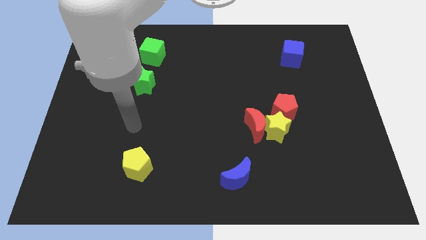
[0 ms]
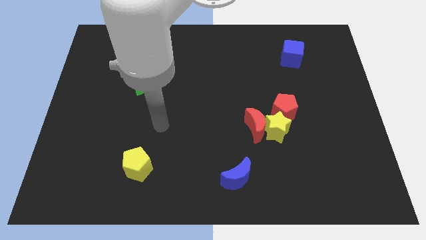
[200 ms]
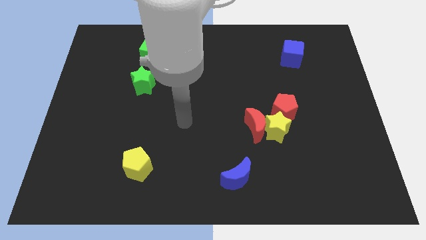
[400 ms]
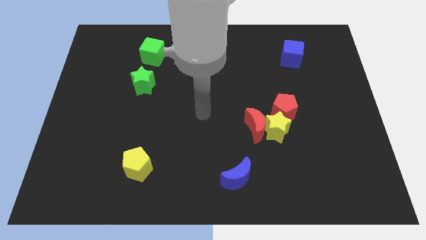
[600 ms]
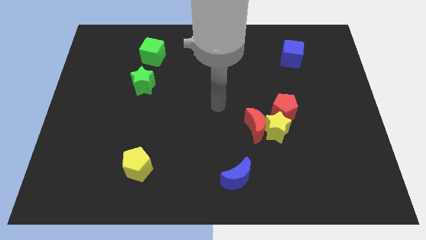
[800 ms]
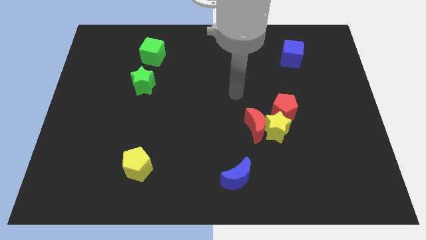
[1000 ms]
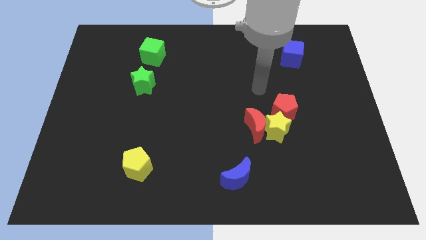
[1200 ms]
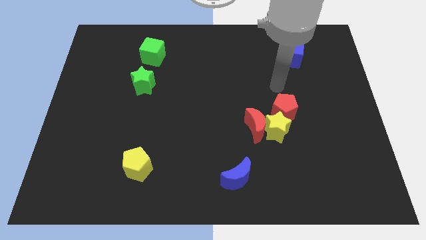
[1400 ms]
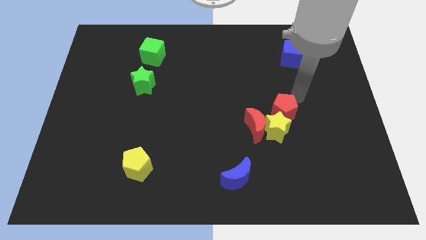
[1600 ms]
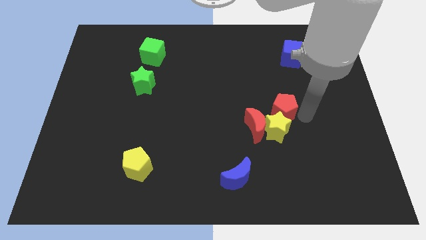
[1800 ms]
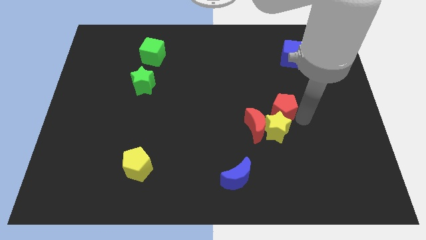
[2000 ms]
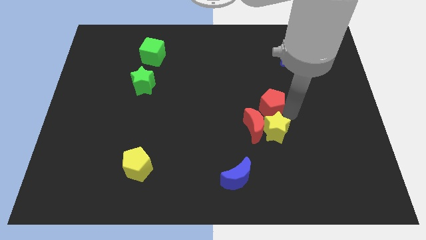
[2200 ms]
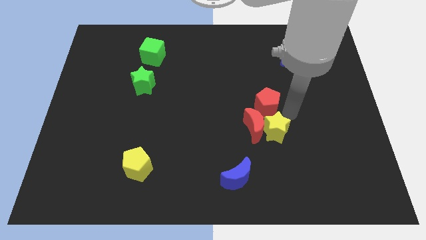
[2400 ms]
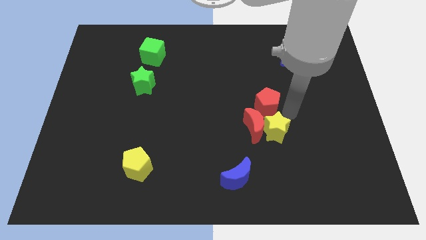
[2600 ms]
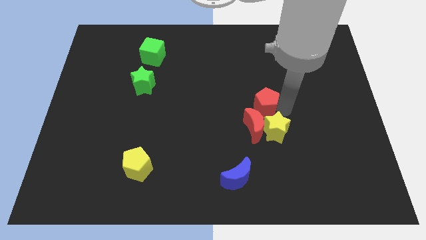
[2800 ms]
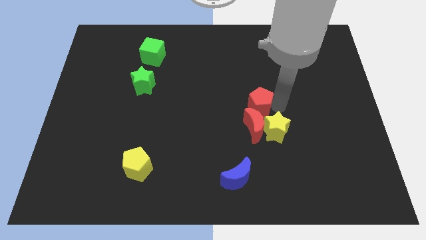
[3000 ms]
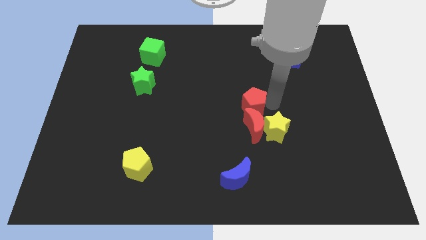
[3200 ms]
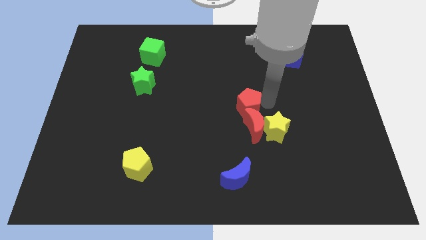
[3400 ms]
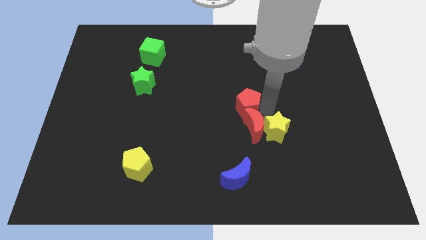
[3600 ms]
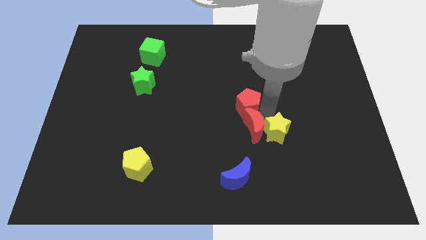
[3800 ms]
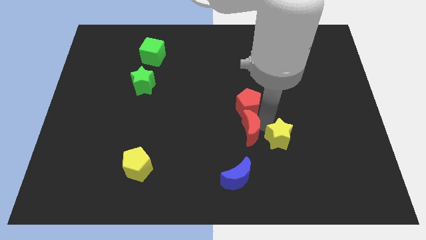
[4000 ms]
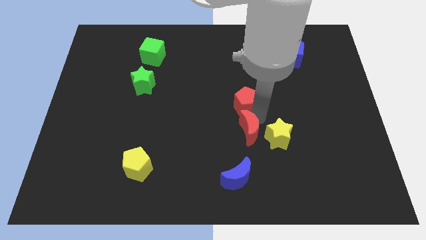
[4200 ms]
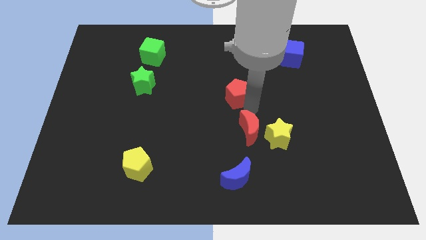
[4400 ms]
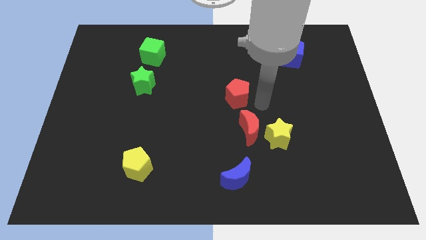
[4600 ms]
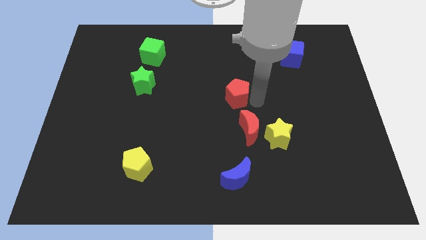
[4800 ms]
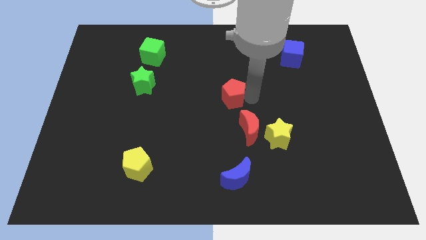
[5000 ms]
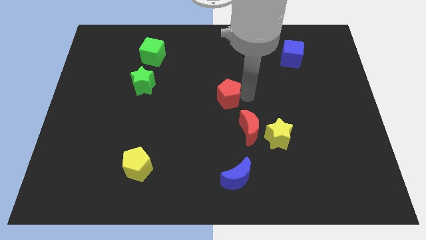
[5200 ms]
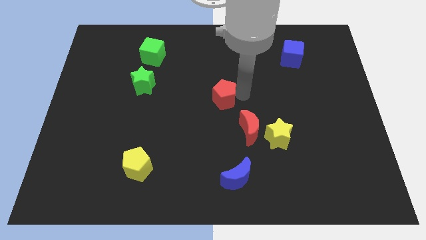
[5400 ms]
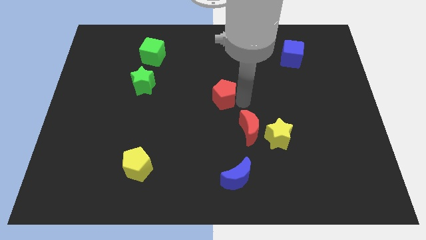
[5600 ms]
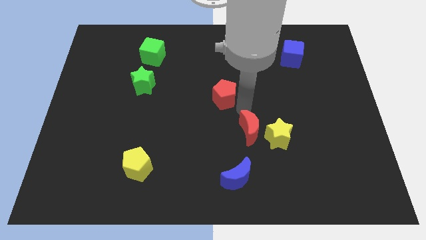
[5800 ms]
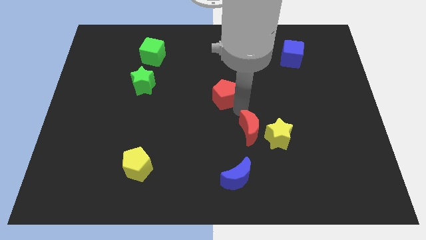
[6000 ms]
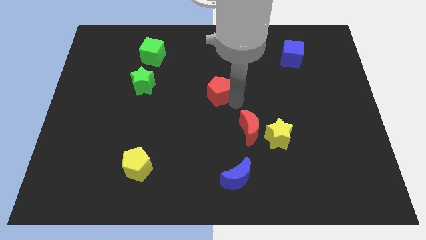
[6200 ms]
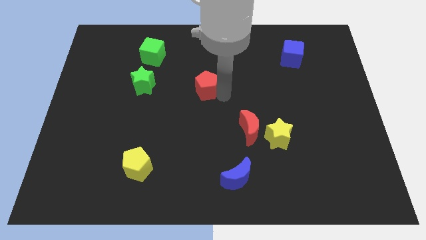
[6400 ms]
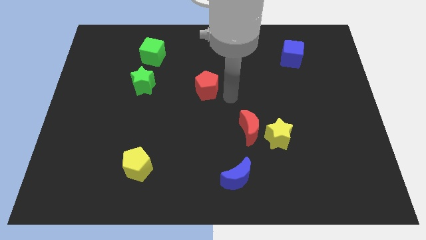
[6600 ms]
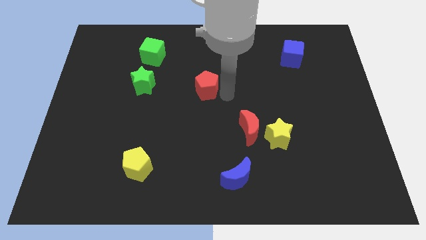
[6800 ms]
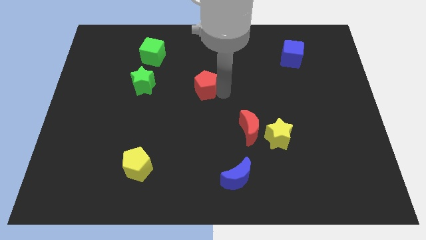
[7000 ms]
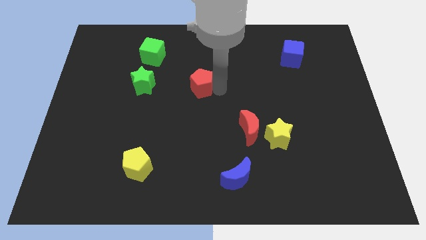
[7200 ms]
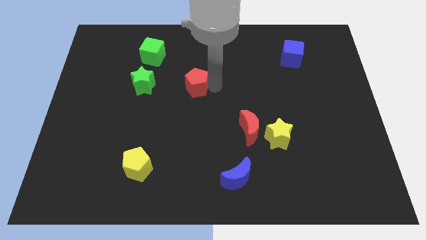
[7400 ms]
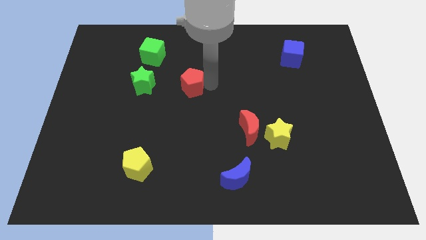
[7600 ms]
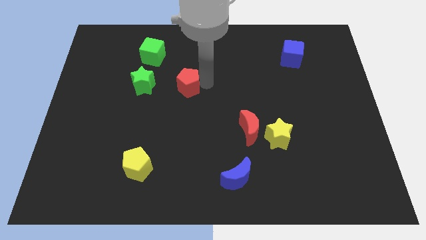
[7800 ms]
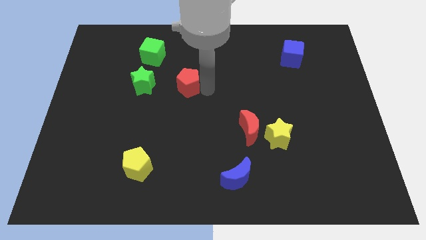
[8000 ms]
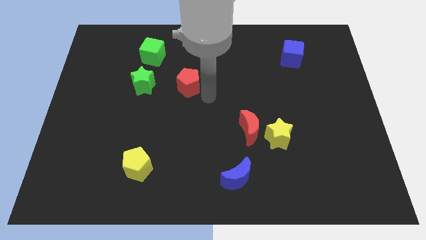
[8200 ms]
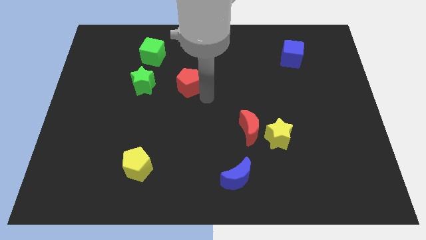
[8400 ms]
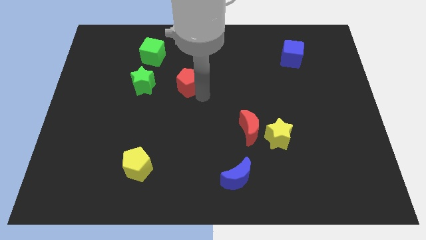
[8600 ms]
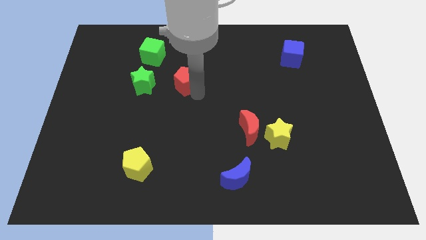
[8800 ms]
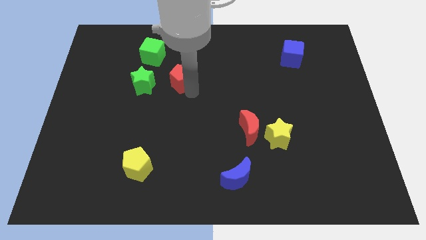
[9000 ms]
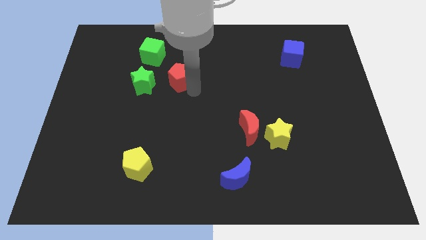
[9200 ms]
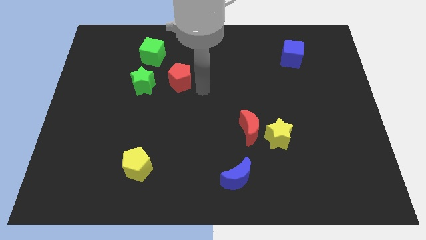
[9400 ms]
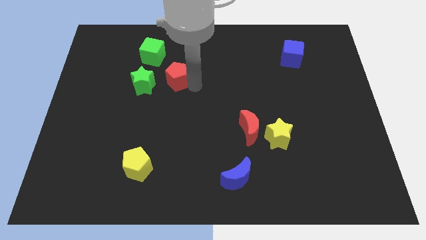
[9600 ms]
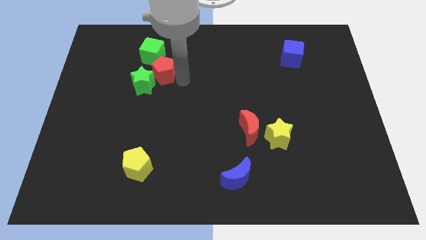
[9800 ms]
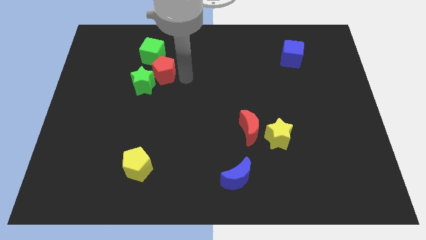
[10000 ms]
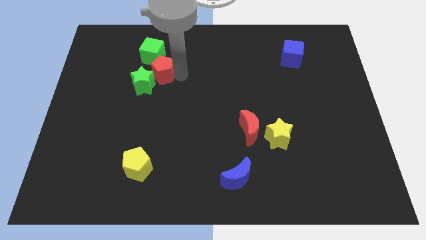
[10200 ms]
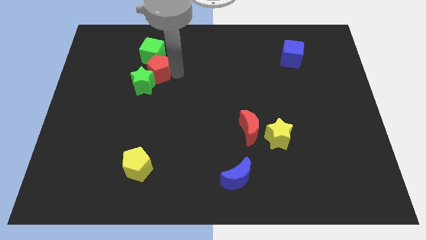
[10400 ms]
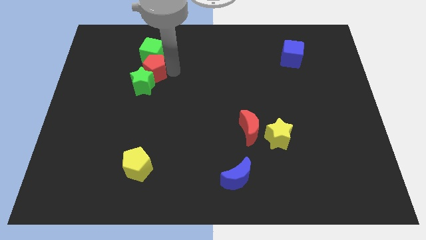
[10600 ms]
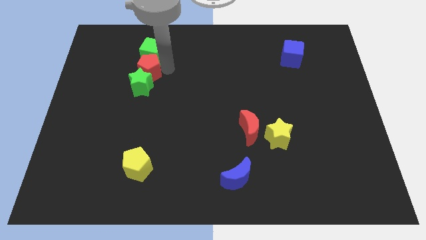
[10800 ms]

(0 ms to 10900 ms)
move the red pentagon diagonally up and to the left of the green star

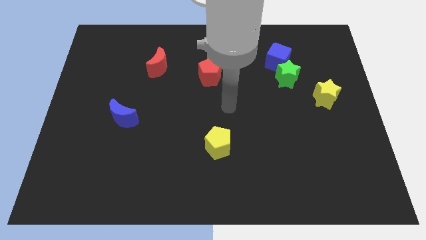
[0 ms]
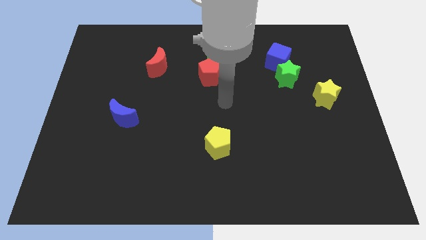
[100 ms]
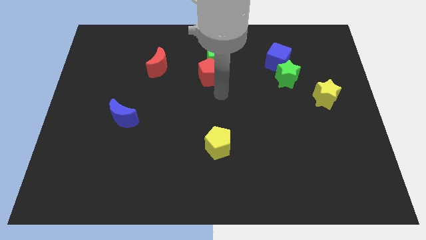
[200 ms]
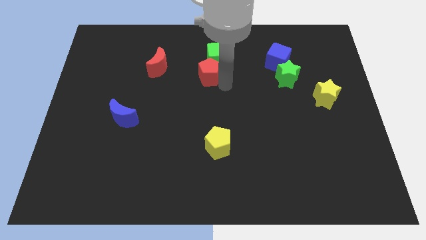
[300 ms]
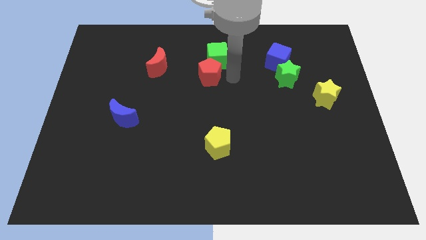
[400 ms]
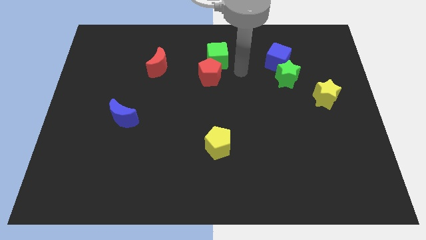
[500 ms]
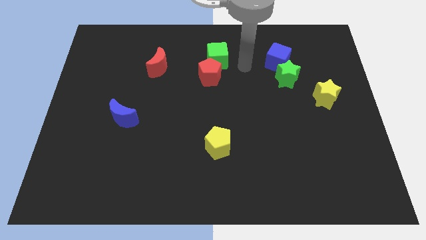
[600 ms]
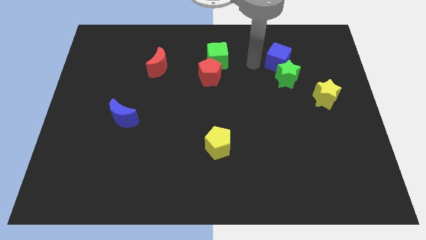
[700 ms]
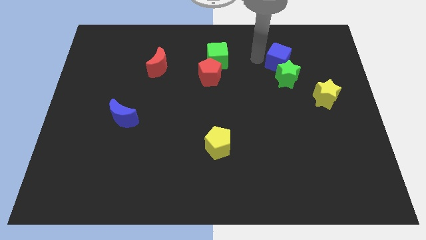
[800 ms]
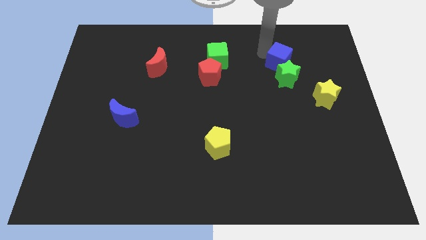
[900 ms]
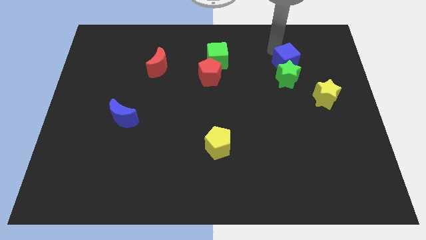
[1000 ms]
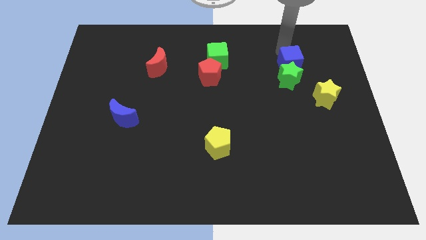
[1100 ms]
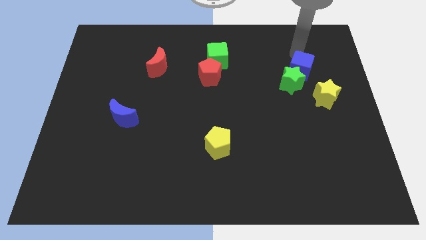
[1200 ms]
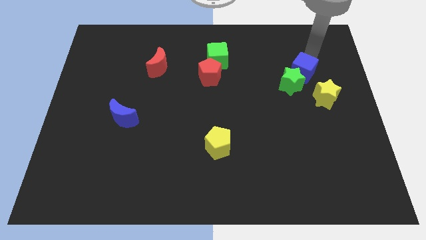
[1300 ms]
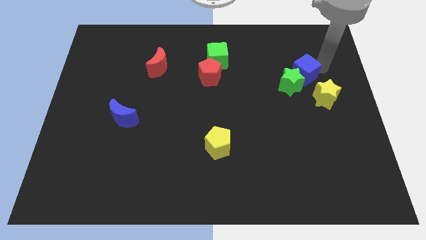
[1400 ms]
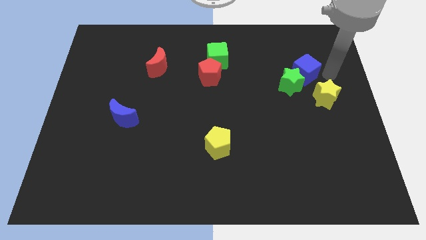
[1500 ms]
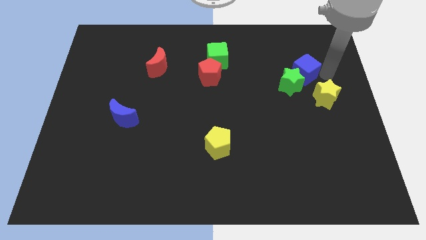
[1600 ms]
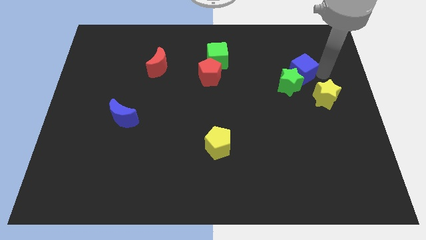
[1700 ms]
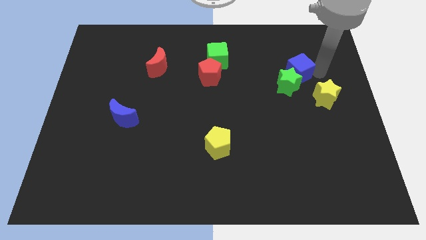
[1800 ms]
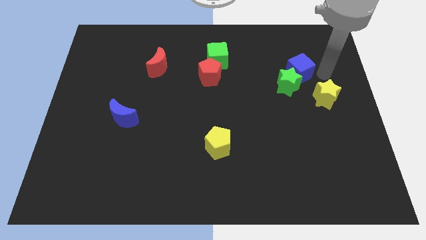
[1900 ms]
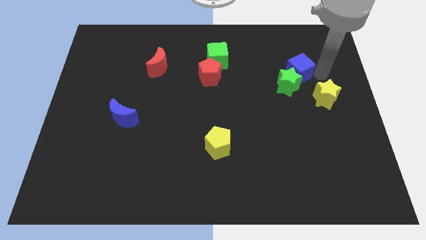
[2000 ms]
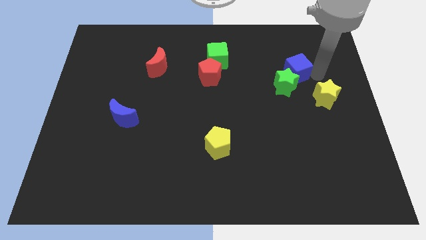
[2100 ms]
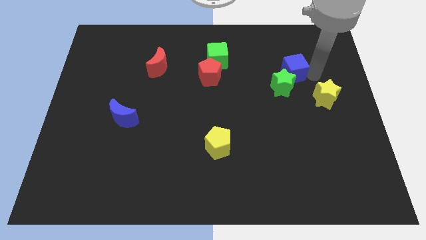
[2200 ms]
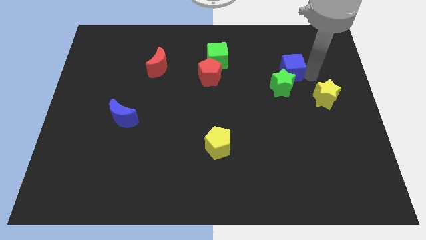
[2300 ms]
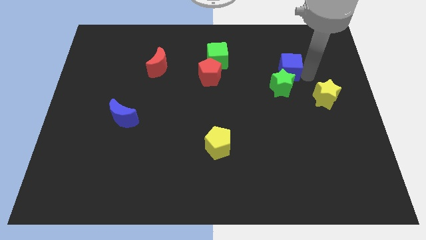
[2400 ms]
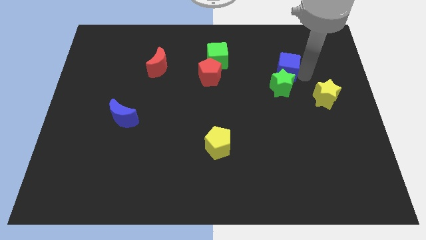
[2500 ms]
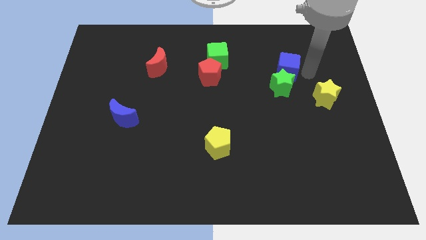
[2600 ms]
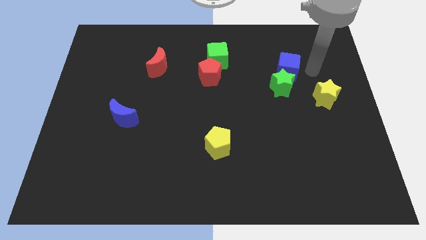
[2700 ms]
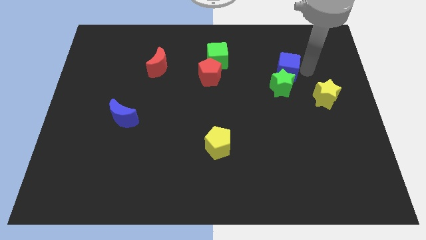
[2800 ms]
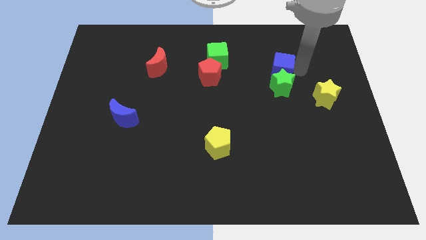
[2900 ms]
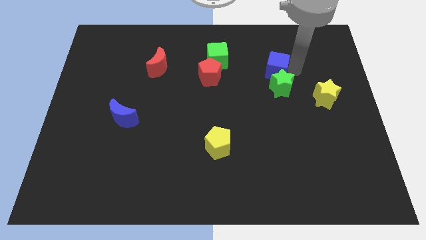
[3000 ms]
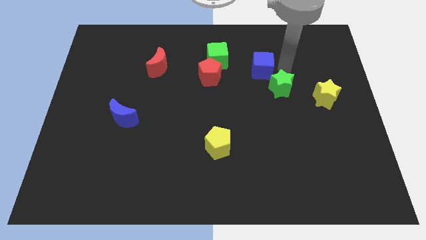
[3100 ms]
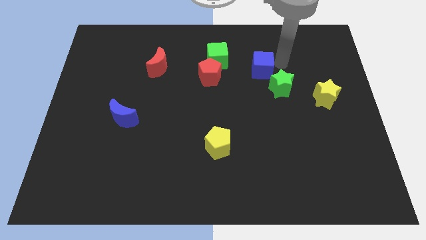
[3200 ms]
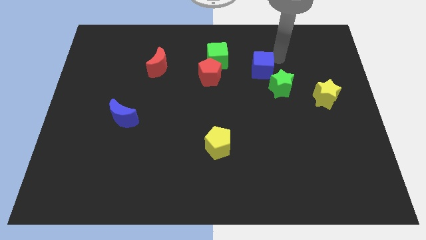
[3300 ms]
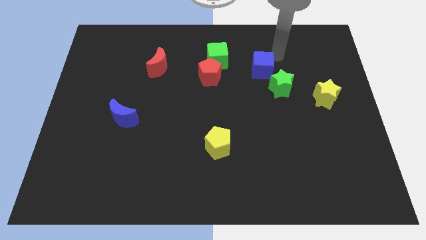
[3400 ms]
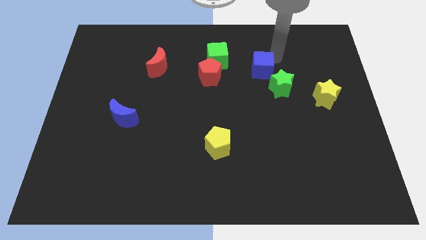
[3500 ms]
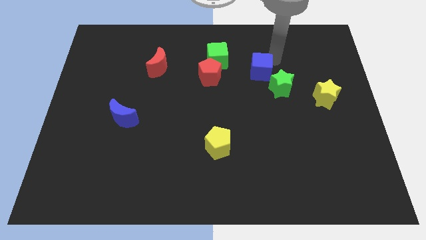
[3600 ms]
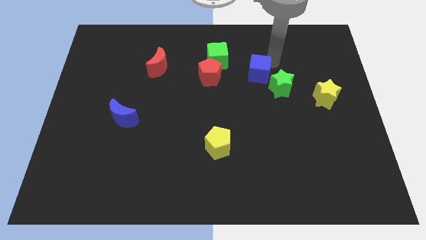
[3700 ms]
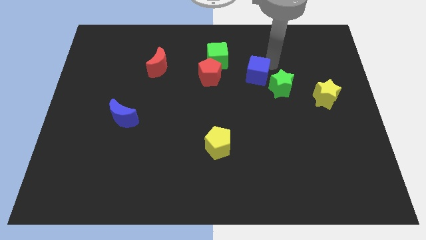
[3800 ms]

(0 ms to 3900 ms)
push the blue cube just left of the green star
